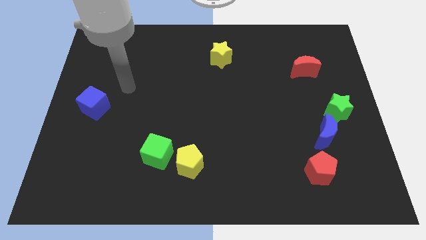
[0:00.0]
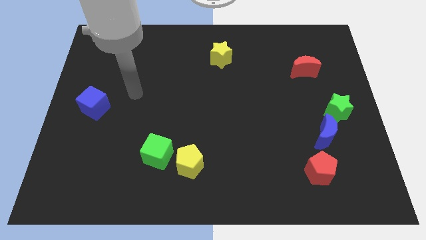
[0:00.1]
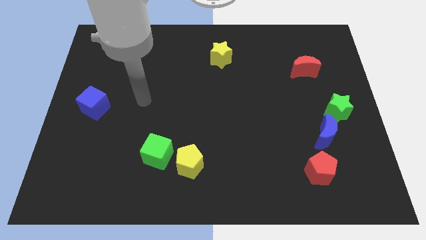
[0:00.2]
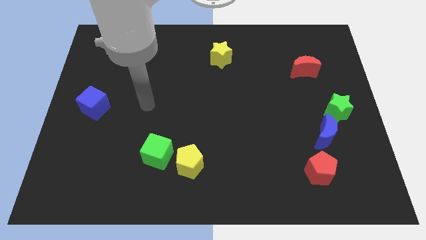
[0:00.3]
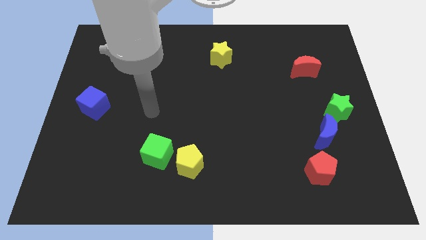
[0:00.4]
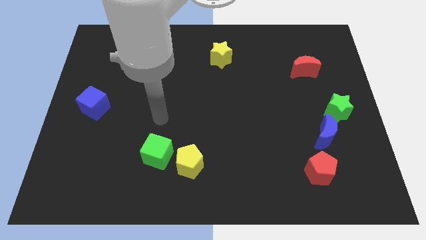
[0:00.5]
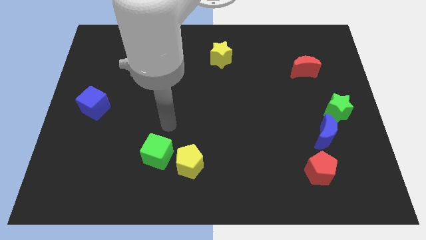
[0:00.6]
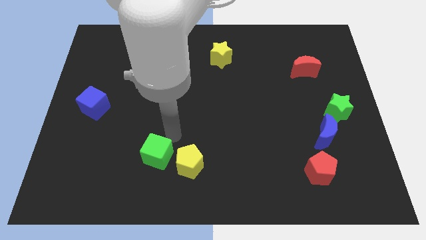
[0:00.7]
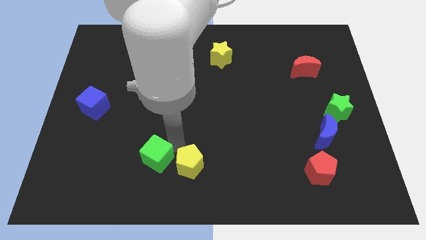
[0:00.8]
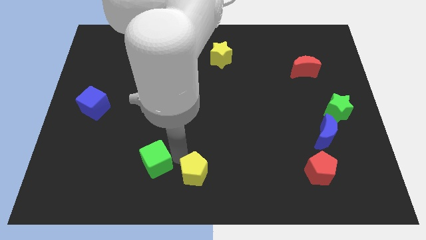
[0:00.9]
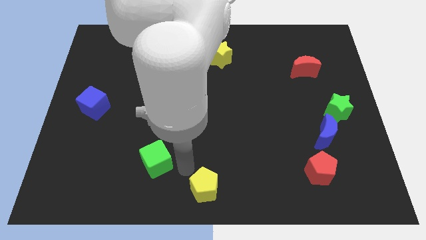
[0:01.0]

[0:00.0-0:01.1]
pull the green cube apart from the yellow pentagon

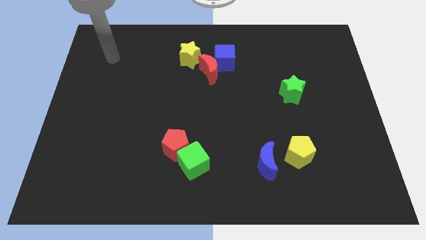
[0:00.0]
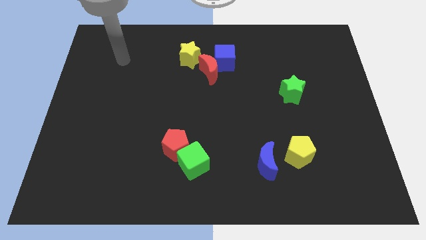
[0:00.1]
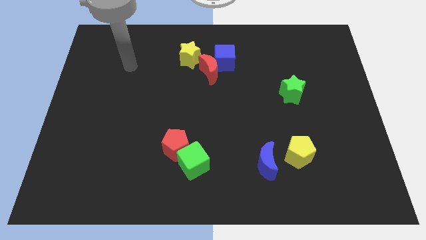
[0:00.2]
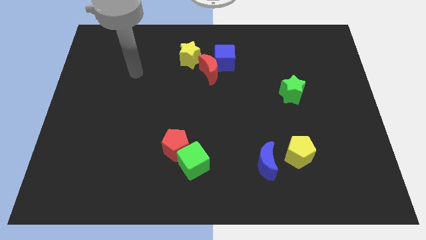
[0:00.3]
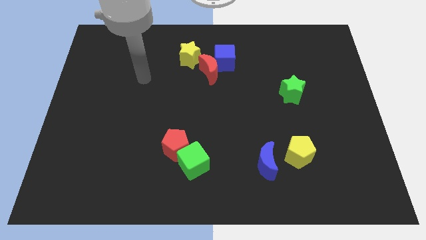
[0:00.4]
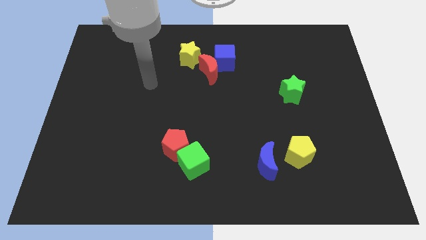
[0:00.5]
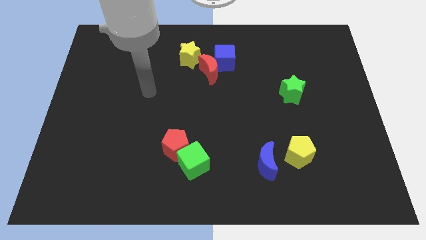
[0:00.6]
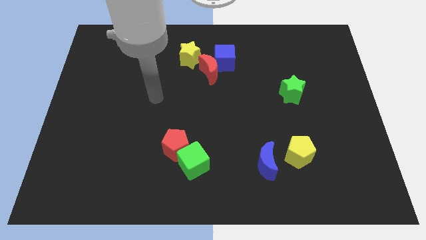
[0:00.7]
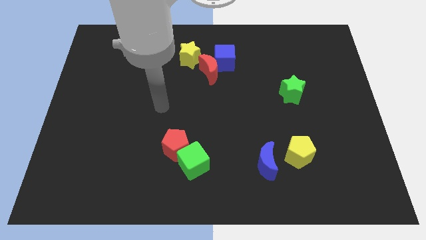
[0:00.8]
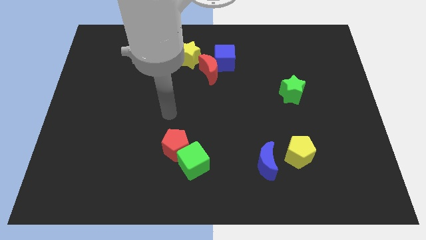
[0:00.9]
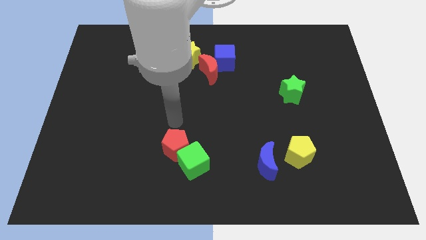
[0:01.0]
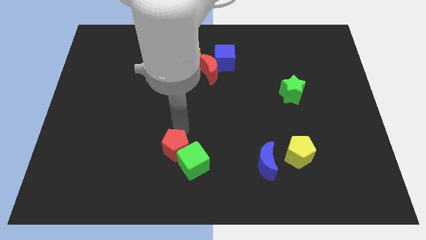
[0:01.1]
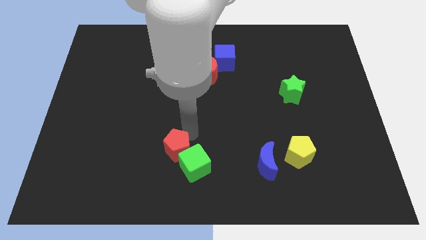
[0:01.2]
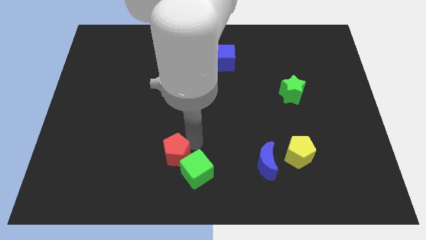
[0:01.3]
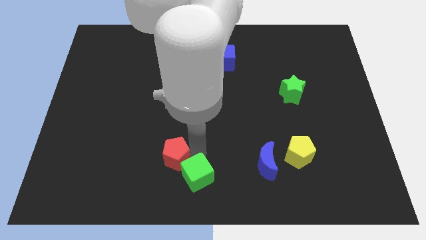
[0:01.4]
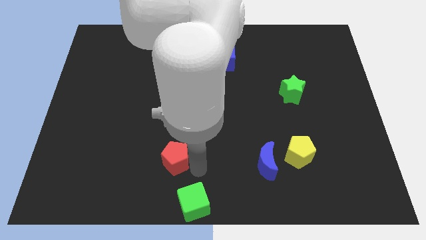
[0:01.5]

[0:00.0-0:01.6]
separate the red pentagon from the green cube

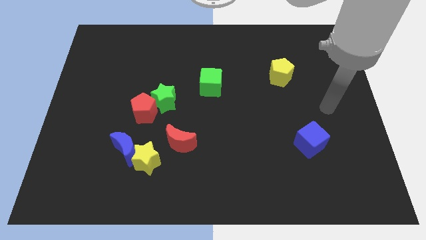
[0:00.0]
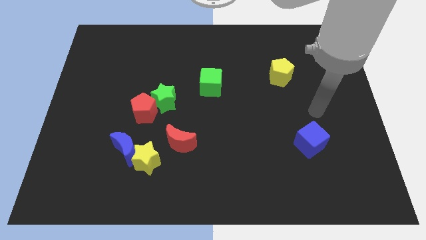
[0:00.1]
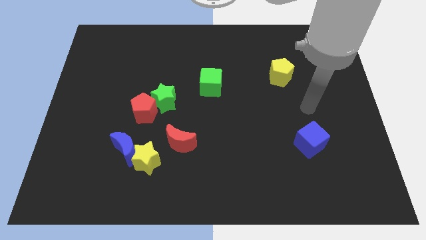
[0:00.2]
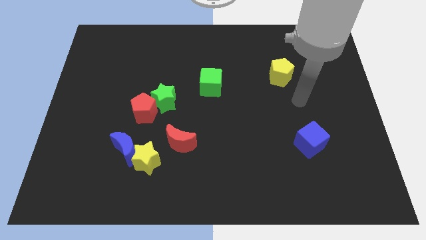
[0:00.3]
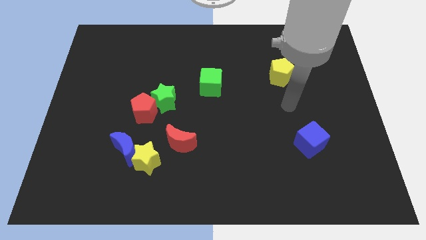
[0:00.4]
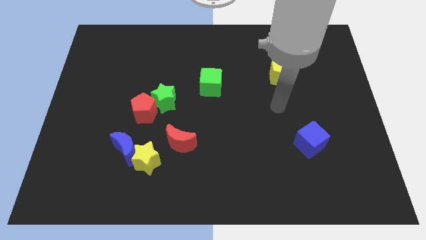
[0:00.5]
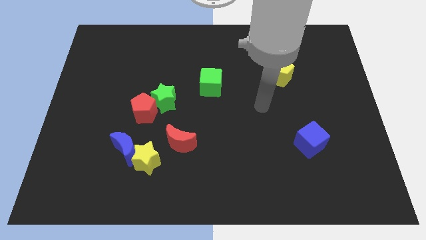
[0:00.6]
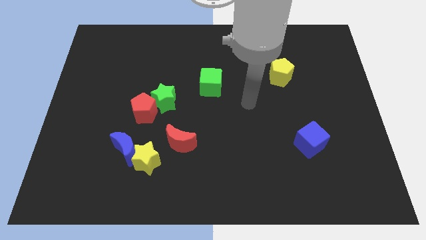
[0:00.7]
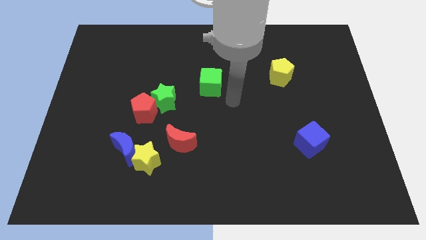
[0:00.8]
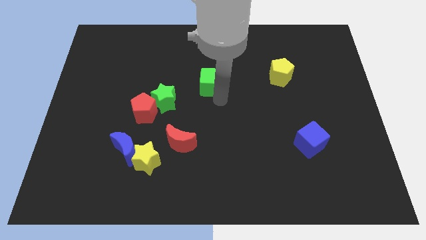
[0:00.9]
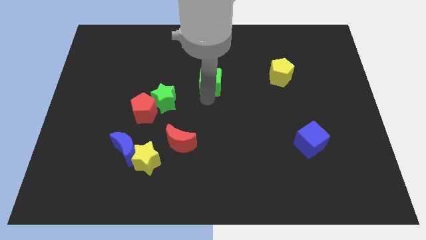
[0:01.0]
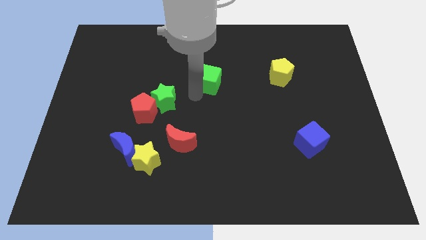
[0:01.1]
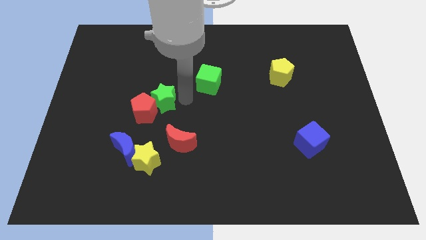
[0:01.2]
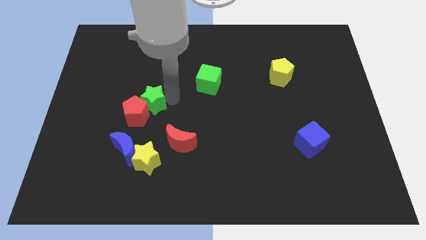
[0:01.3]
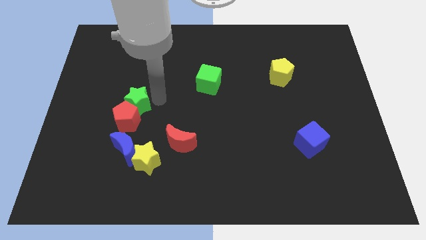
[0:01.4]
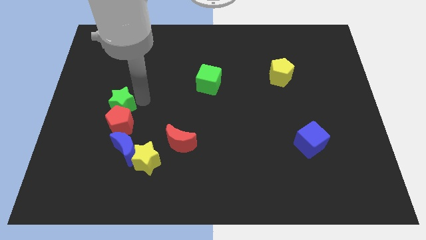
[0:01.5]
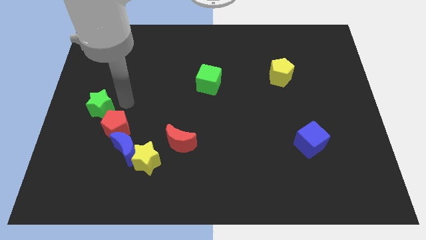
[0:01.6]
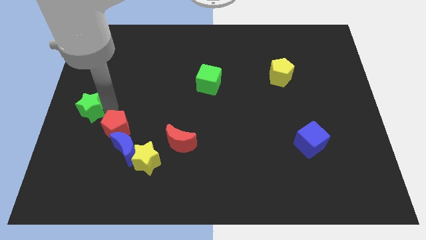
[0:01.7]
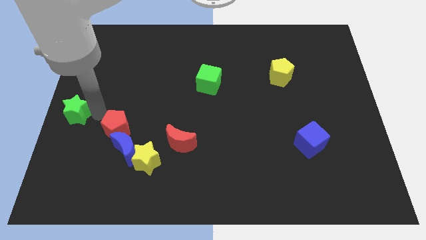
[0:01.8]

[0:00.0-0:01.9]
pull the red pentagon apart from the green star

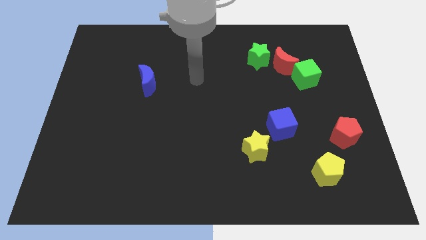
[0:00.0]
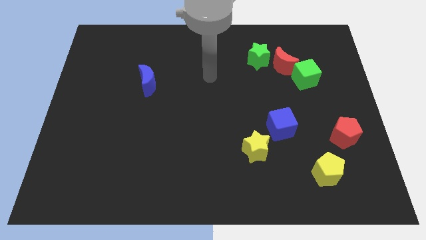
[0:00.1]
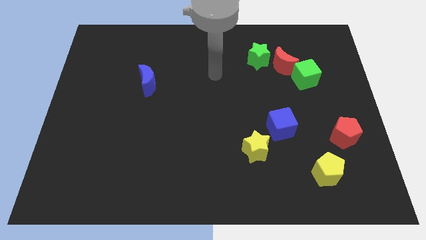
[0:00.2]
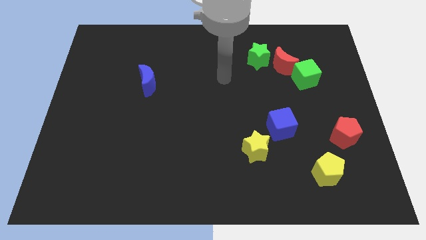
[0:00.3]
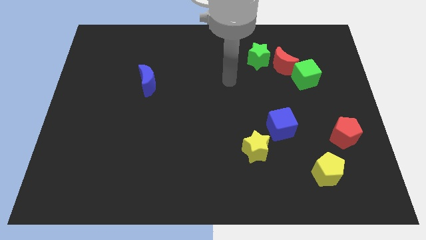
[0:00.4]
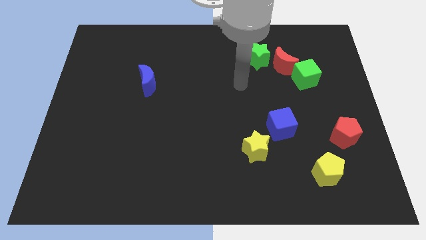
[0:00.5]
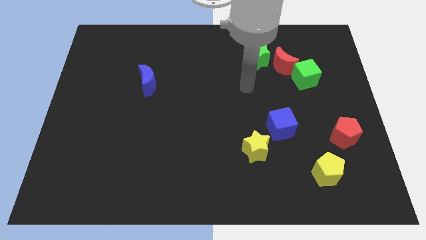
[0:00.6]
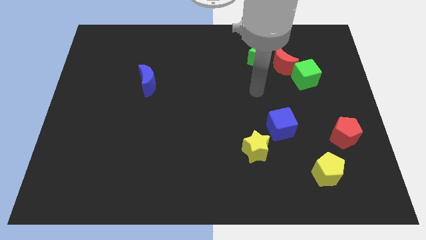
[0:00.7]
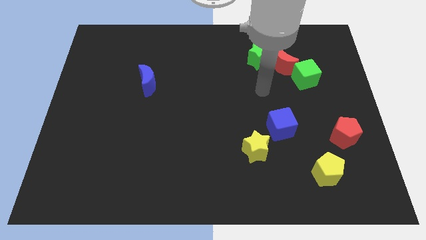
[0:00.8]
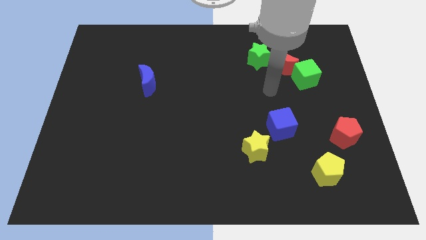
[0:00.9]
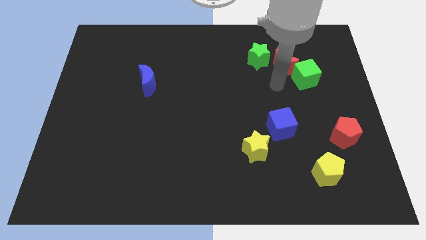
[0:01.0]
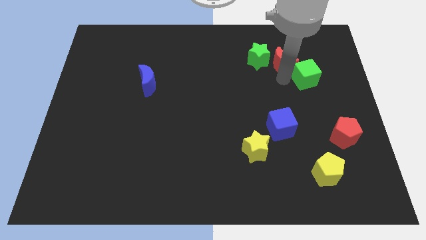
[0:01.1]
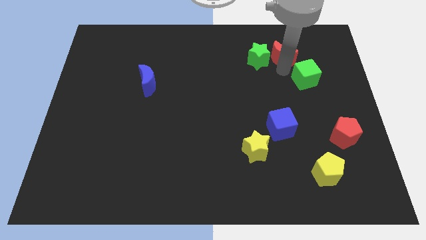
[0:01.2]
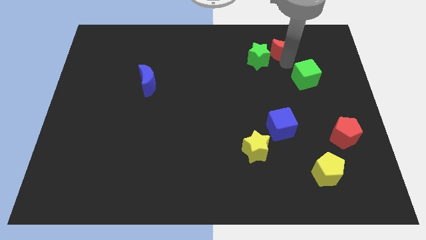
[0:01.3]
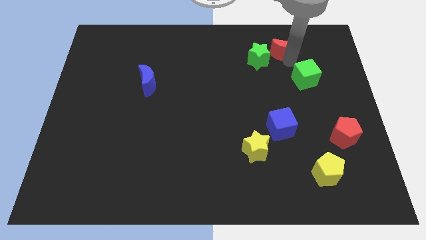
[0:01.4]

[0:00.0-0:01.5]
move the green cube away from the red moon

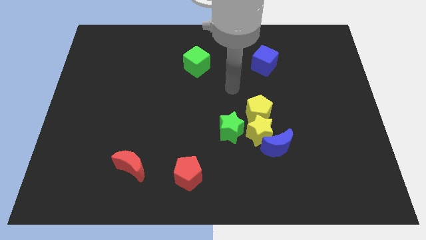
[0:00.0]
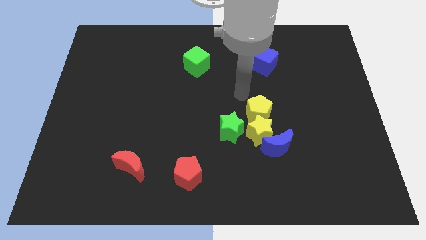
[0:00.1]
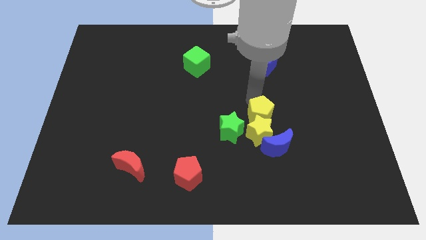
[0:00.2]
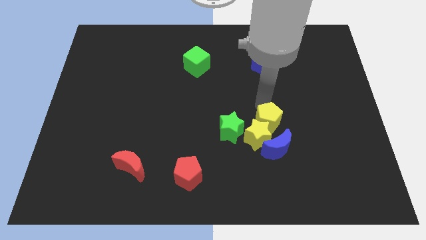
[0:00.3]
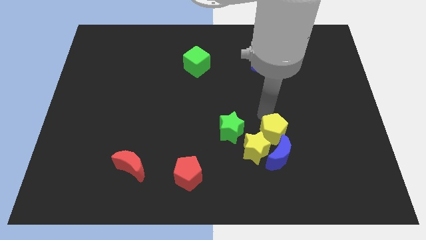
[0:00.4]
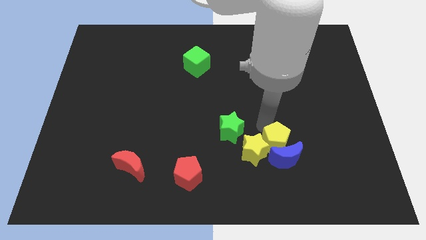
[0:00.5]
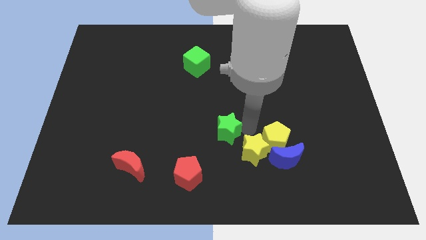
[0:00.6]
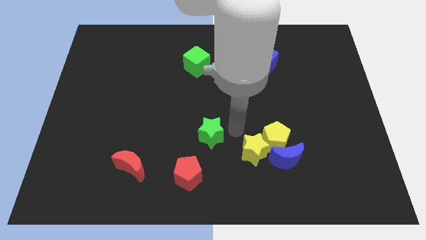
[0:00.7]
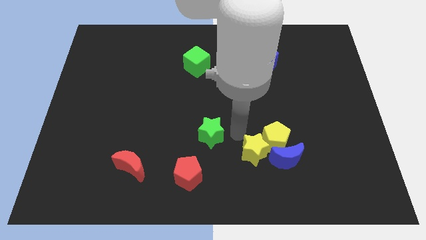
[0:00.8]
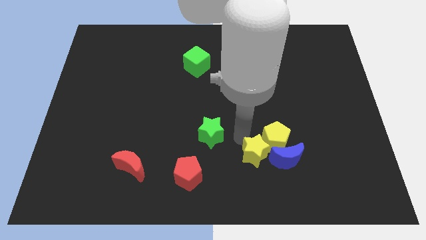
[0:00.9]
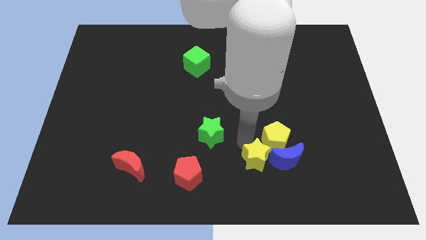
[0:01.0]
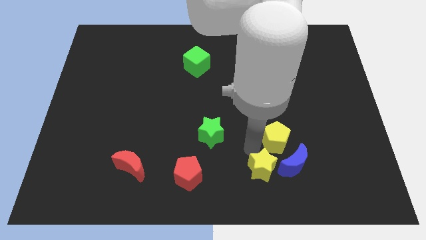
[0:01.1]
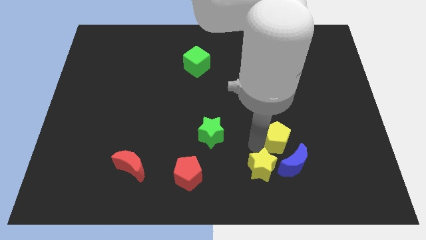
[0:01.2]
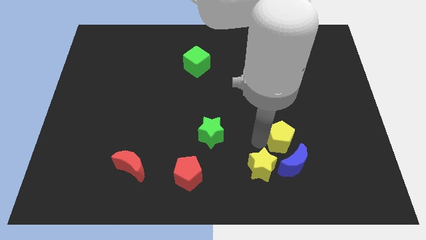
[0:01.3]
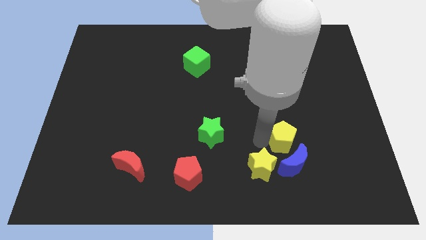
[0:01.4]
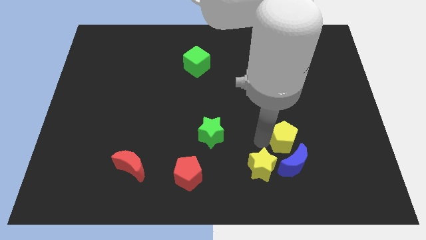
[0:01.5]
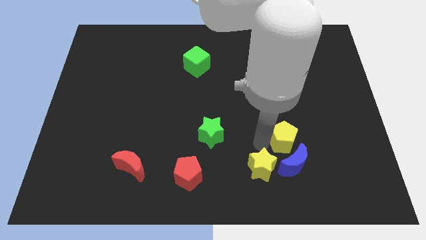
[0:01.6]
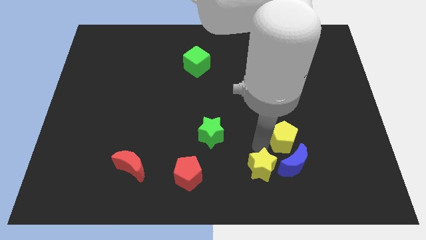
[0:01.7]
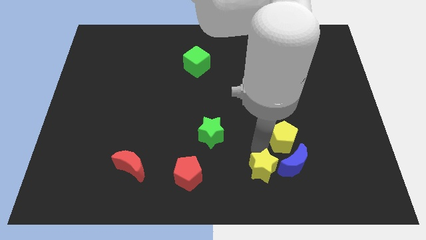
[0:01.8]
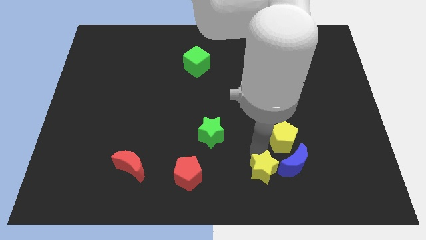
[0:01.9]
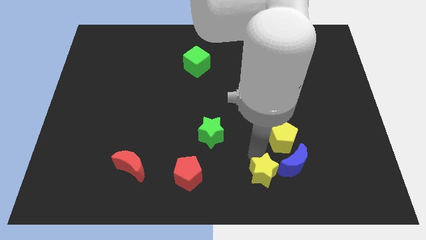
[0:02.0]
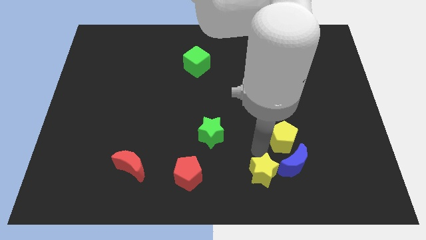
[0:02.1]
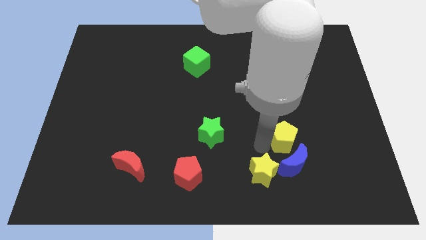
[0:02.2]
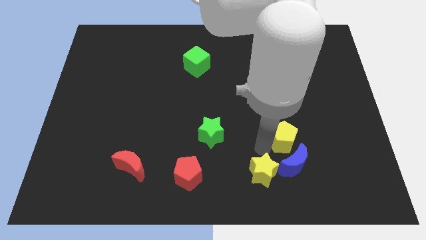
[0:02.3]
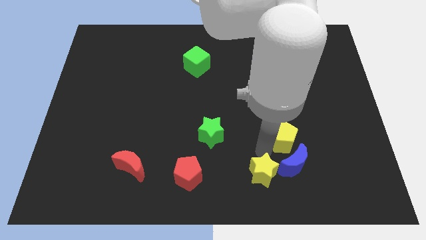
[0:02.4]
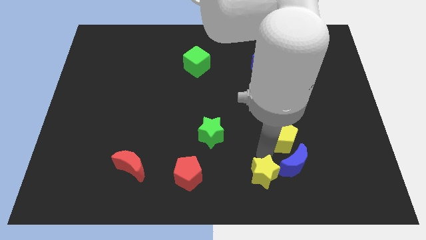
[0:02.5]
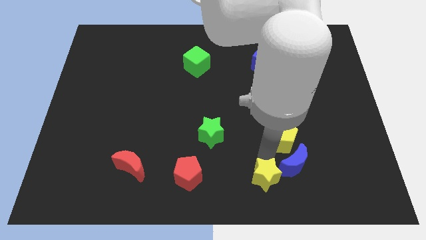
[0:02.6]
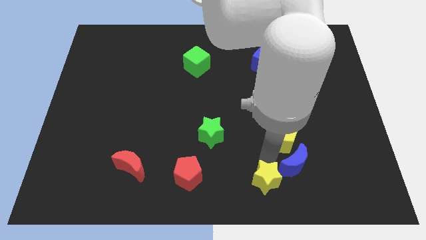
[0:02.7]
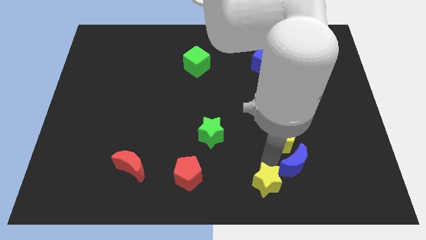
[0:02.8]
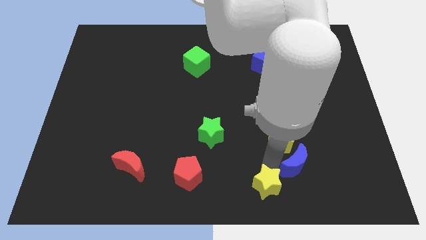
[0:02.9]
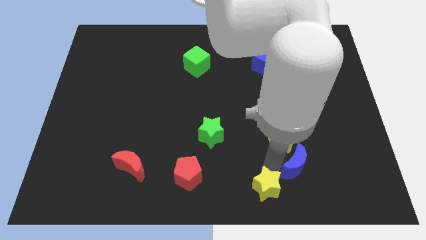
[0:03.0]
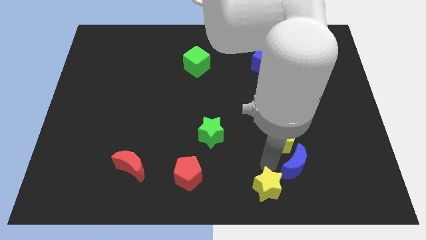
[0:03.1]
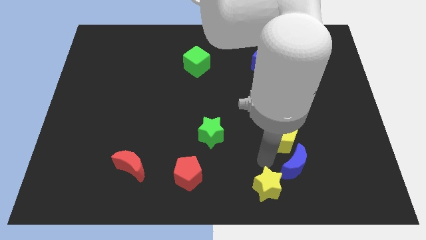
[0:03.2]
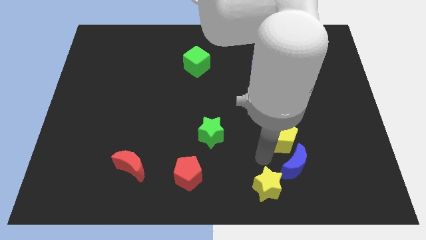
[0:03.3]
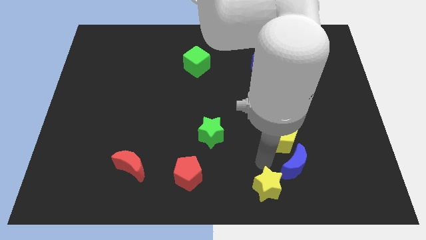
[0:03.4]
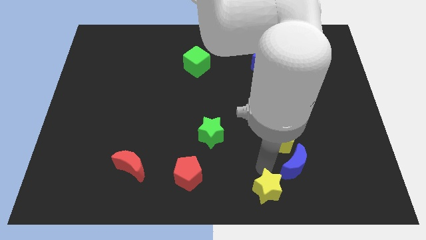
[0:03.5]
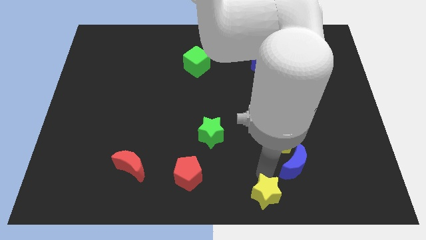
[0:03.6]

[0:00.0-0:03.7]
separate the yellow star from the clump
